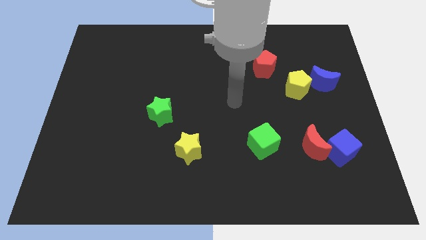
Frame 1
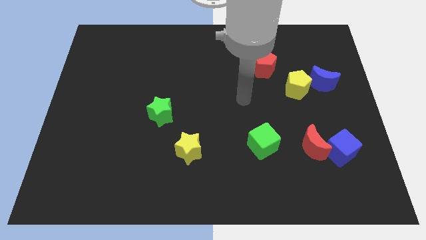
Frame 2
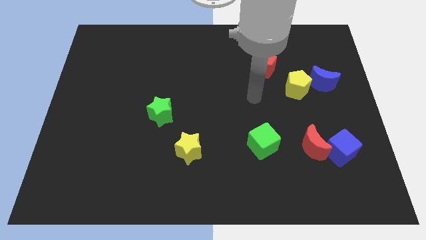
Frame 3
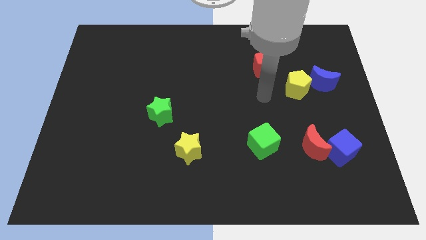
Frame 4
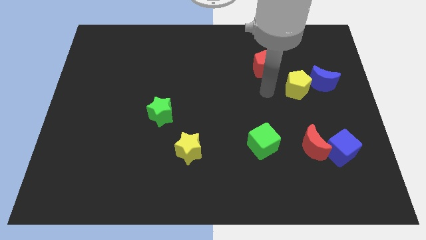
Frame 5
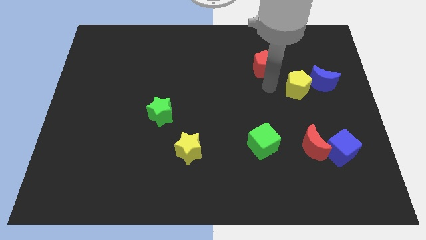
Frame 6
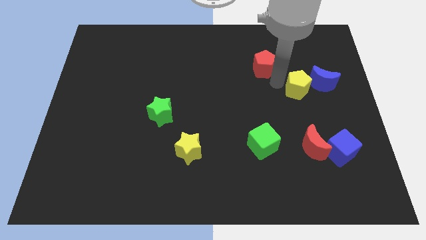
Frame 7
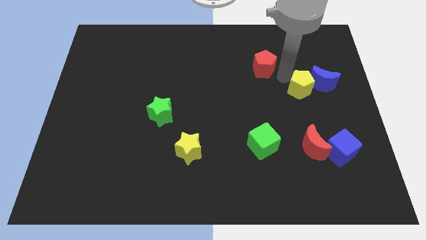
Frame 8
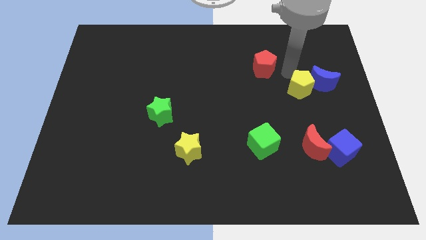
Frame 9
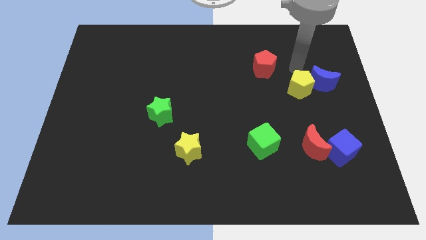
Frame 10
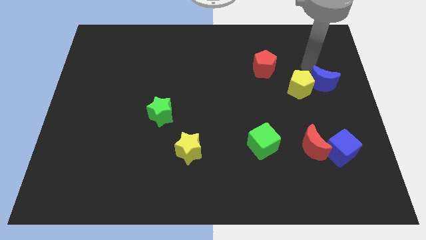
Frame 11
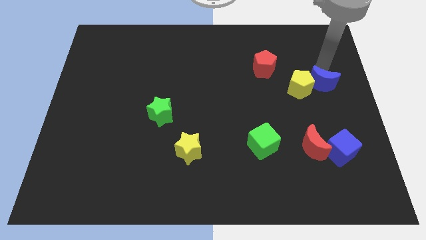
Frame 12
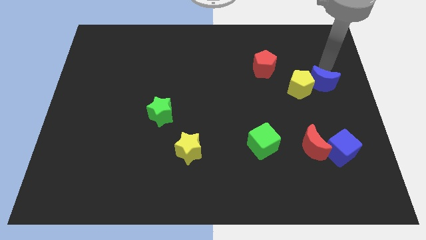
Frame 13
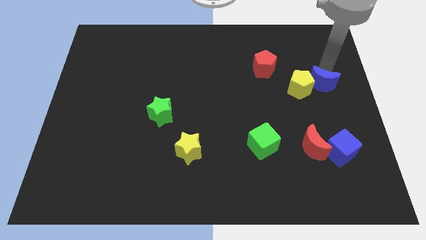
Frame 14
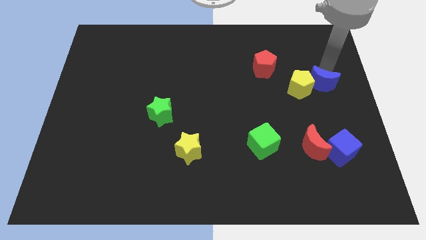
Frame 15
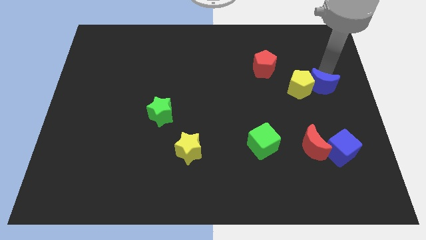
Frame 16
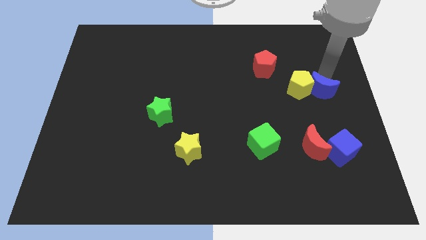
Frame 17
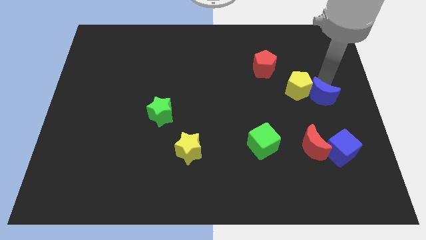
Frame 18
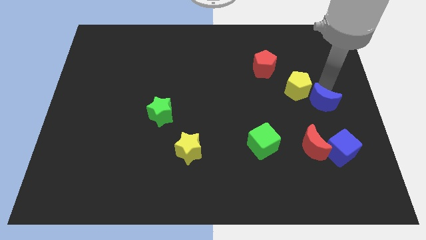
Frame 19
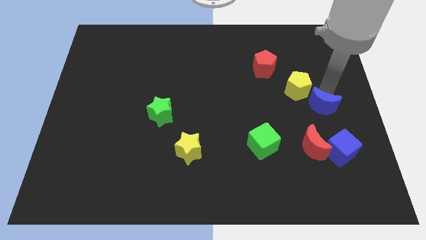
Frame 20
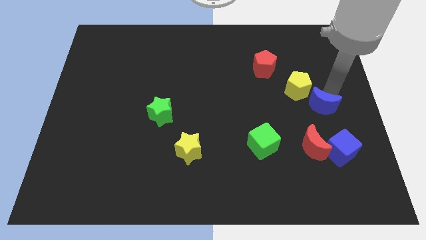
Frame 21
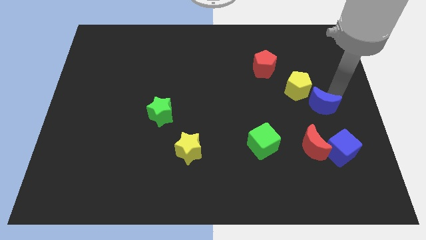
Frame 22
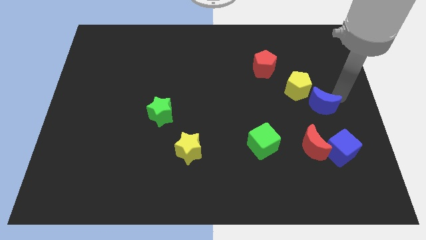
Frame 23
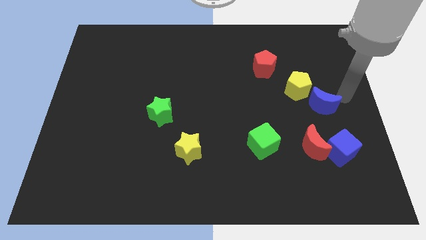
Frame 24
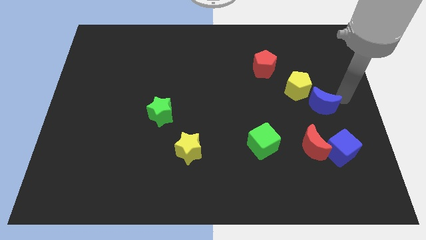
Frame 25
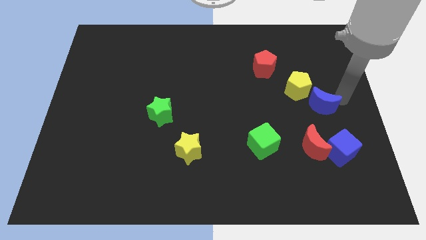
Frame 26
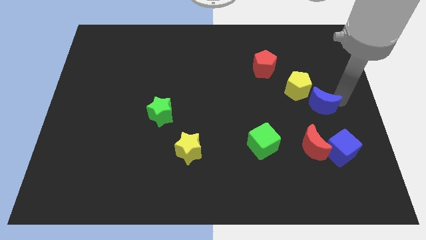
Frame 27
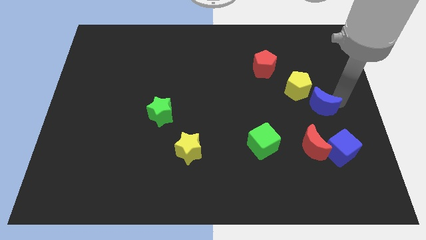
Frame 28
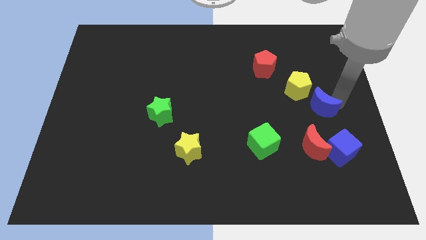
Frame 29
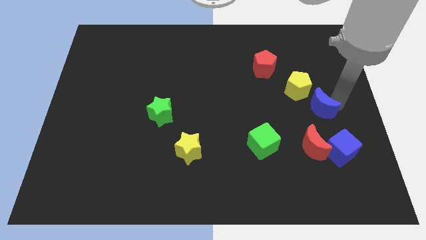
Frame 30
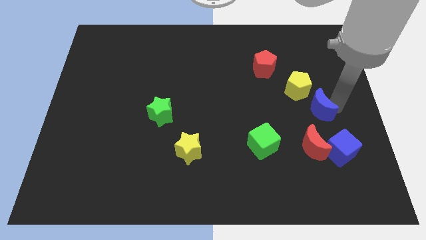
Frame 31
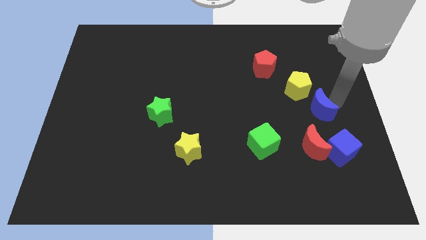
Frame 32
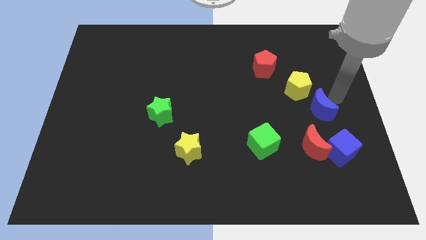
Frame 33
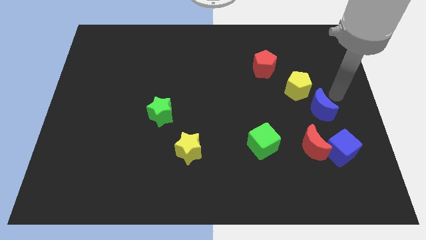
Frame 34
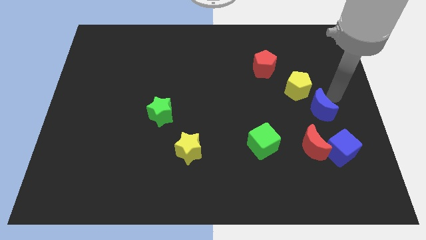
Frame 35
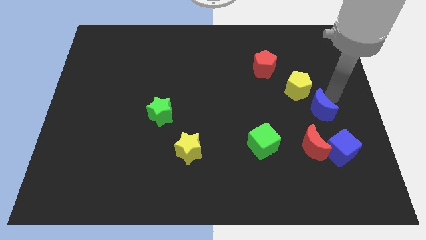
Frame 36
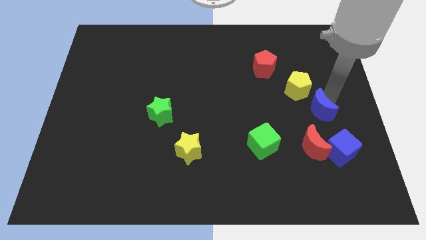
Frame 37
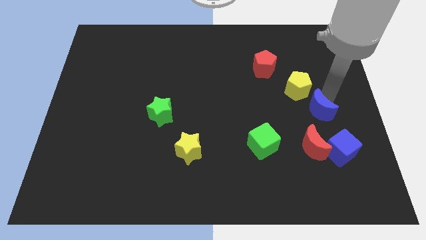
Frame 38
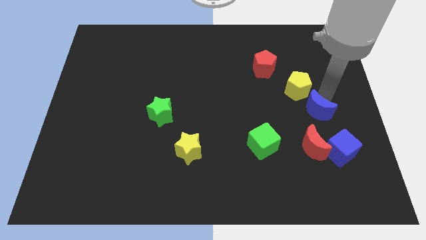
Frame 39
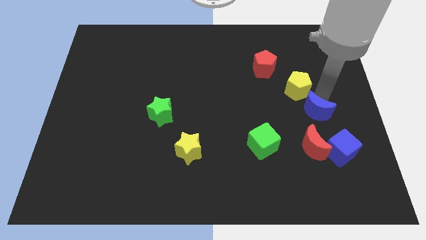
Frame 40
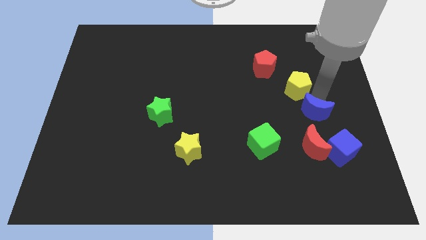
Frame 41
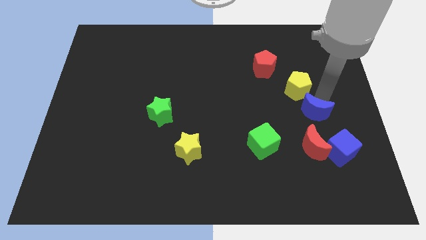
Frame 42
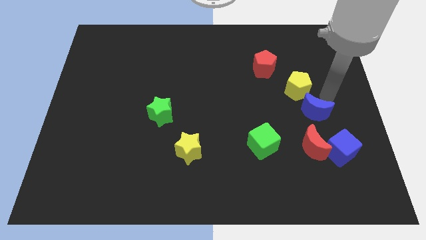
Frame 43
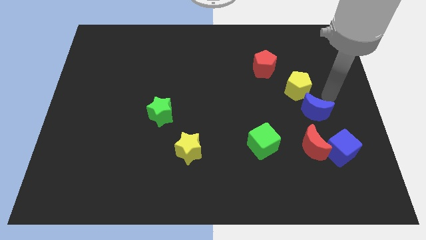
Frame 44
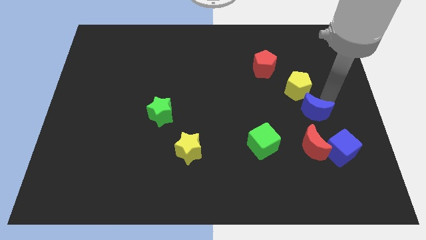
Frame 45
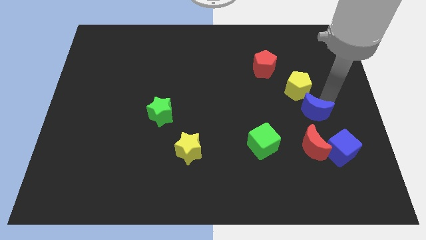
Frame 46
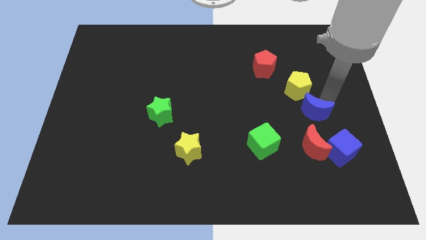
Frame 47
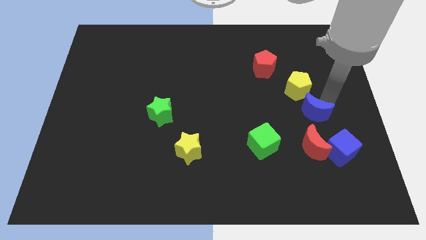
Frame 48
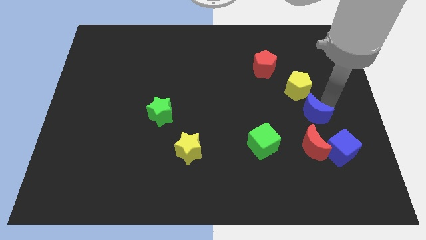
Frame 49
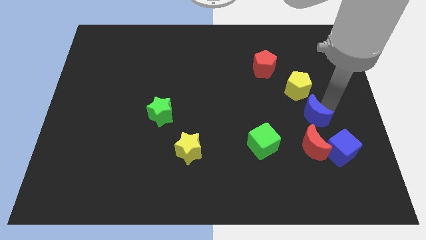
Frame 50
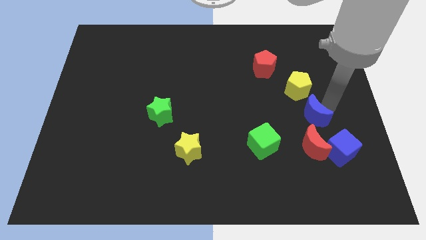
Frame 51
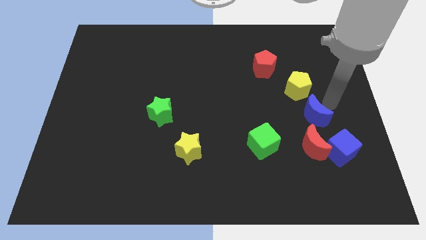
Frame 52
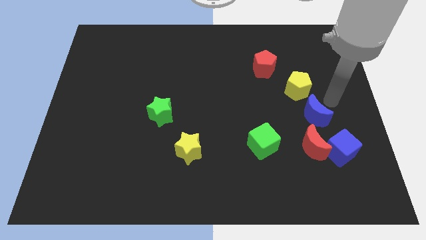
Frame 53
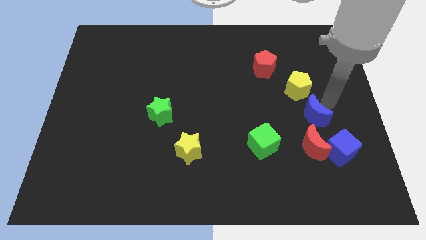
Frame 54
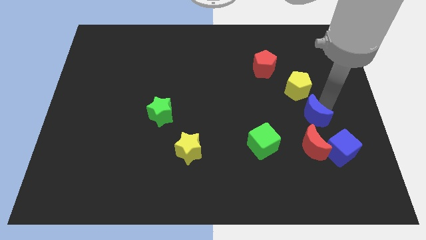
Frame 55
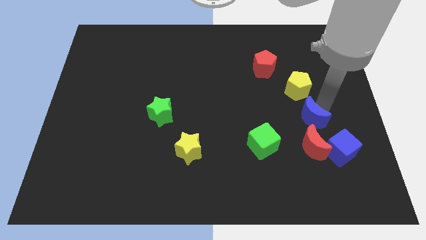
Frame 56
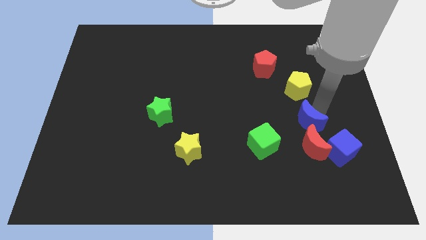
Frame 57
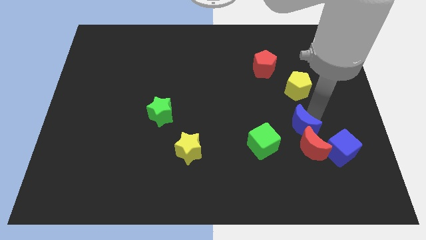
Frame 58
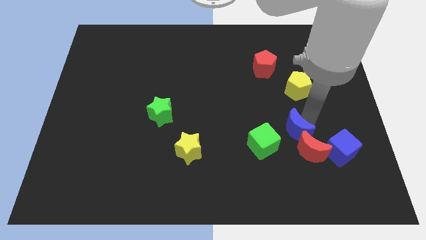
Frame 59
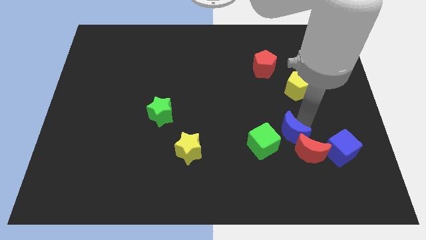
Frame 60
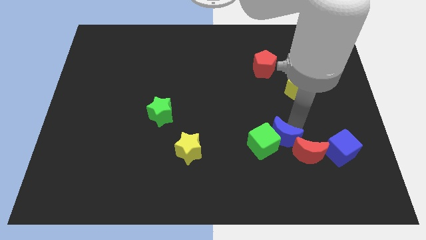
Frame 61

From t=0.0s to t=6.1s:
push the blue moon diagonally down and to the right of the green cube
